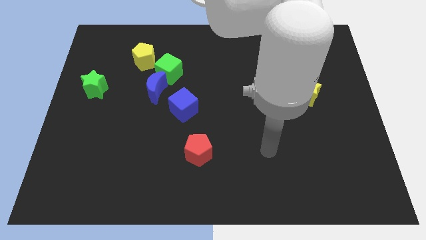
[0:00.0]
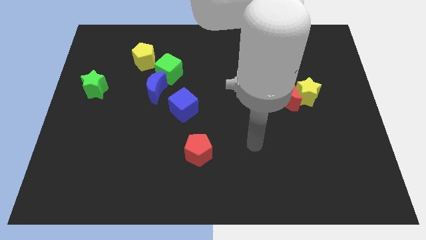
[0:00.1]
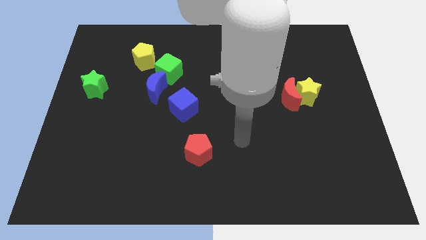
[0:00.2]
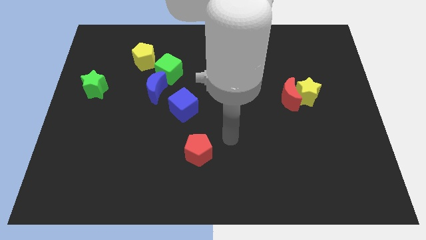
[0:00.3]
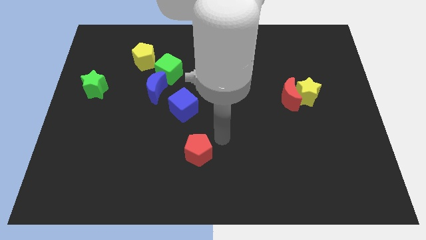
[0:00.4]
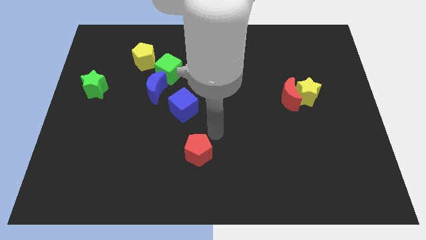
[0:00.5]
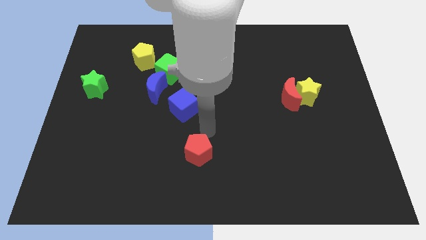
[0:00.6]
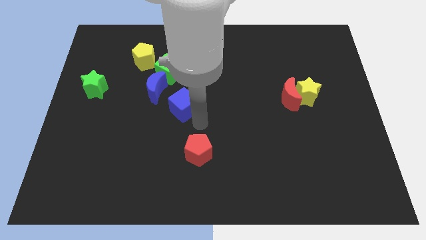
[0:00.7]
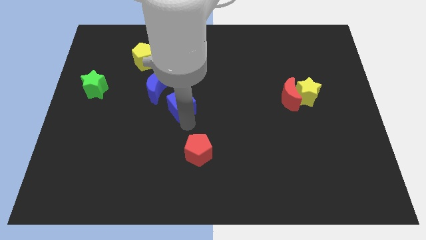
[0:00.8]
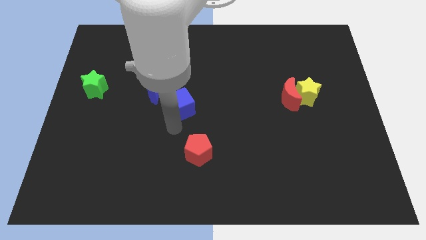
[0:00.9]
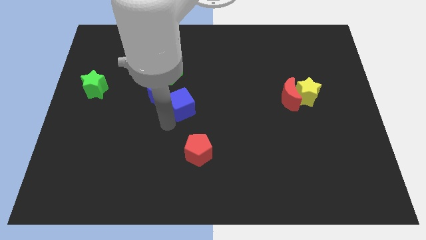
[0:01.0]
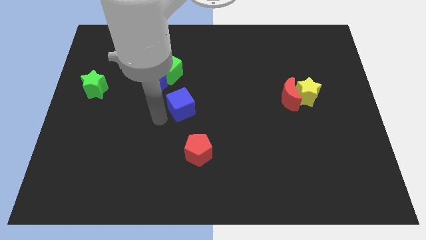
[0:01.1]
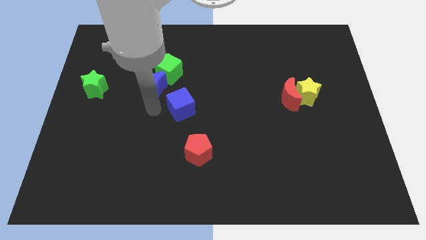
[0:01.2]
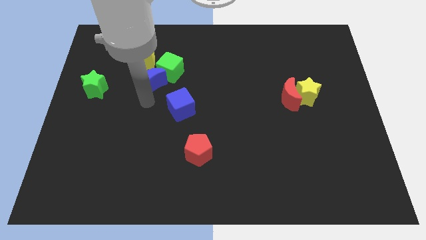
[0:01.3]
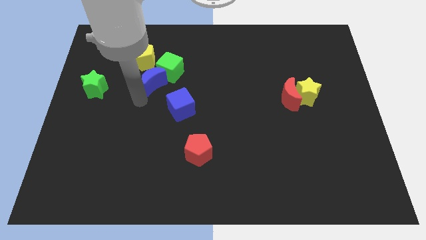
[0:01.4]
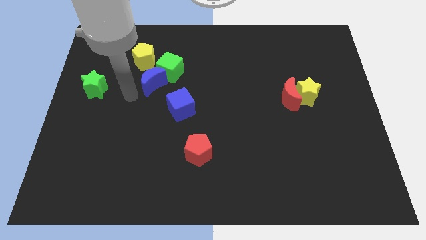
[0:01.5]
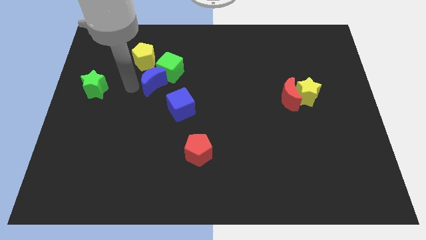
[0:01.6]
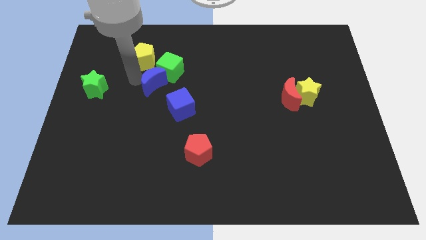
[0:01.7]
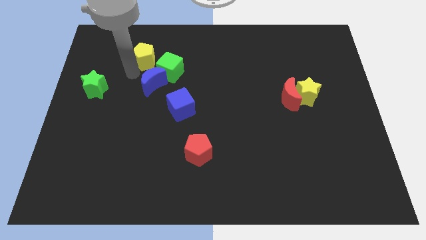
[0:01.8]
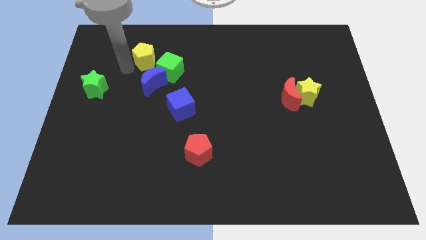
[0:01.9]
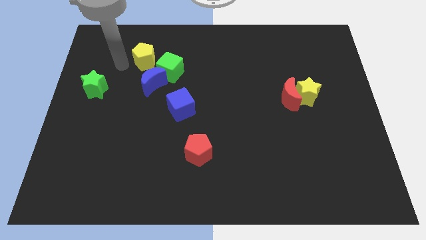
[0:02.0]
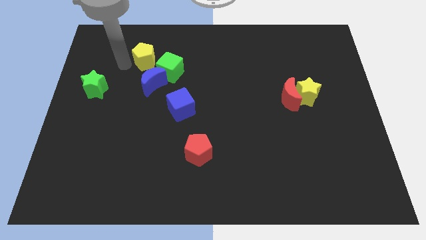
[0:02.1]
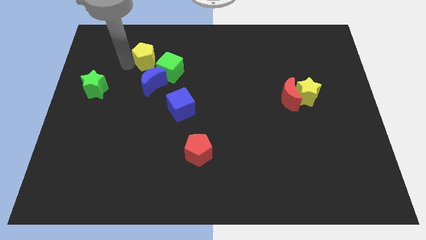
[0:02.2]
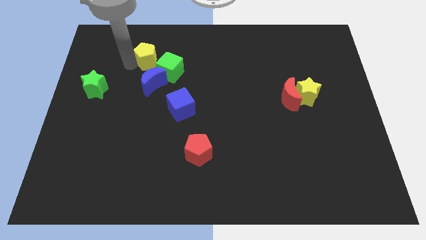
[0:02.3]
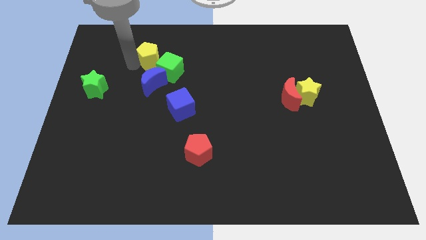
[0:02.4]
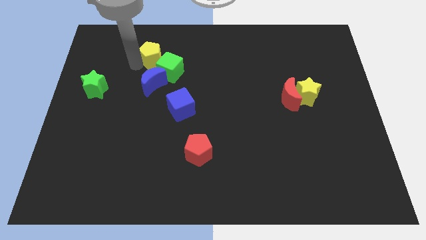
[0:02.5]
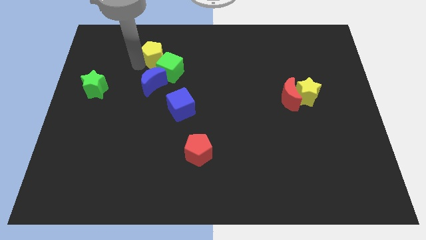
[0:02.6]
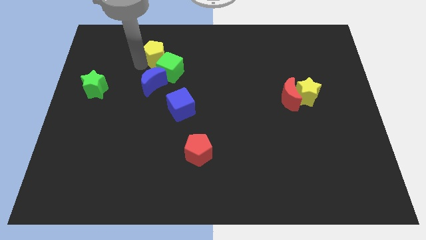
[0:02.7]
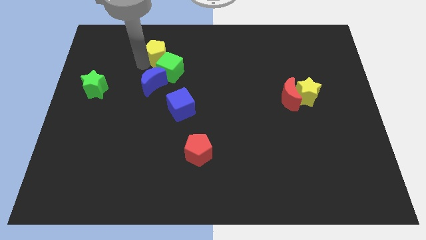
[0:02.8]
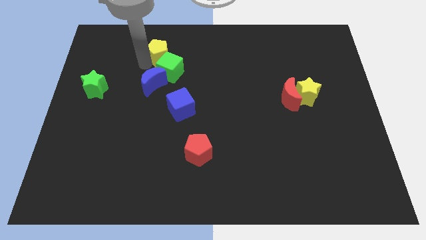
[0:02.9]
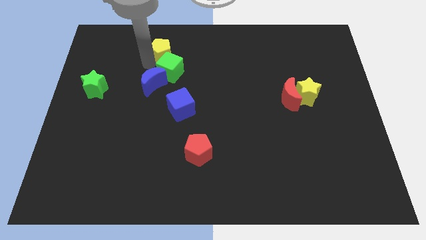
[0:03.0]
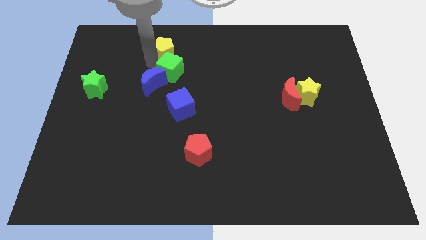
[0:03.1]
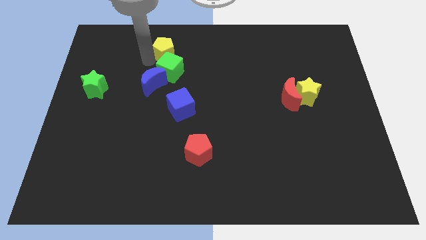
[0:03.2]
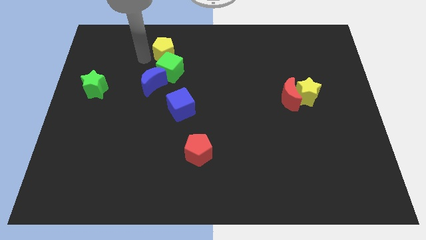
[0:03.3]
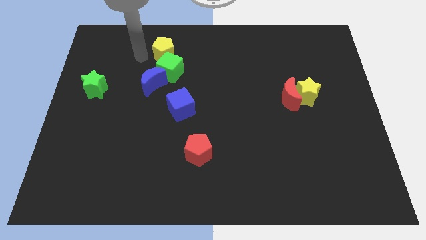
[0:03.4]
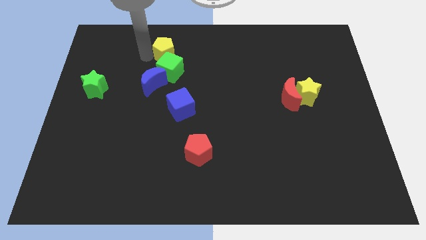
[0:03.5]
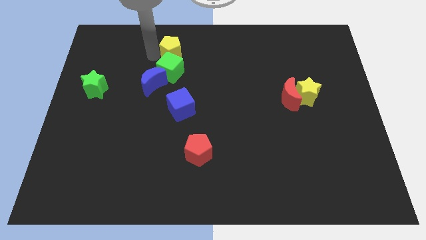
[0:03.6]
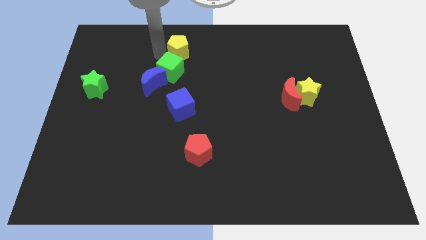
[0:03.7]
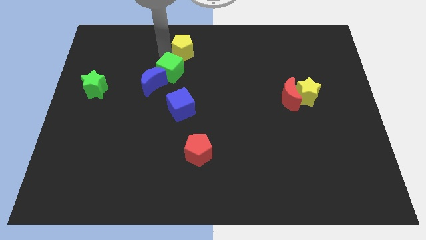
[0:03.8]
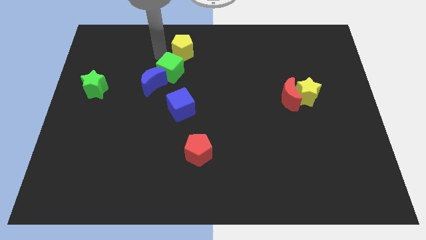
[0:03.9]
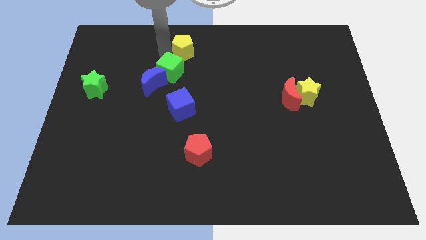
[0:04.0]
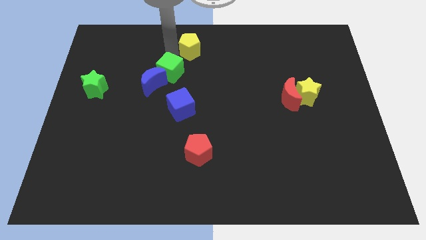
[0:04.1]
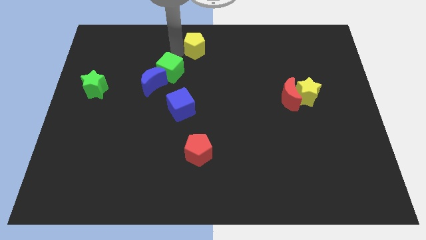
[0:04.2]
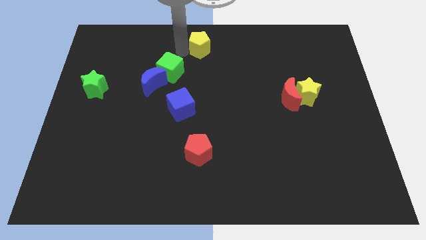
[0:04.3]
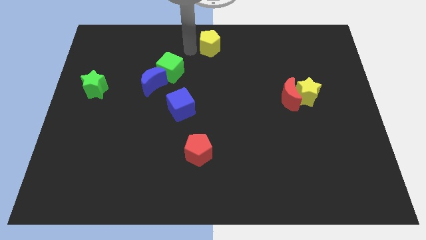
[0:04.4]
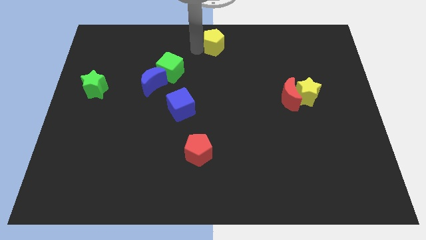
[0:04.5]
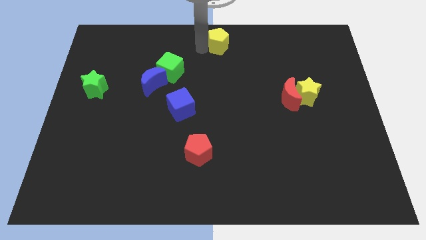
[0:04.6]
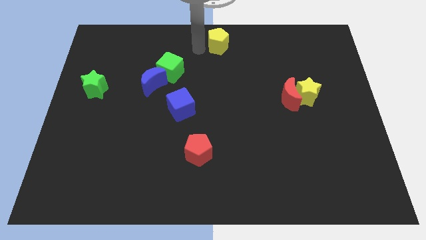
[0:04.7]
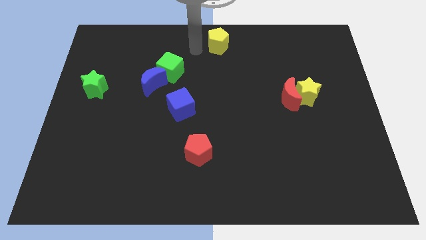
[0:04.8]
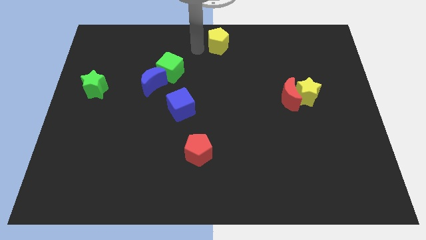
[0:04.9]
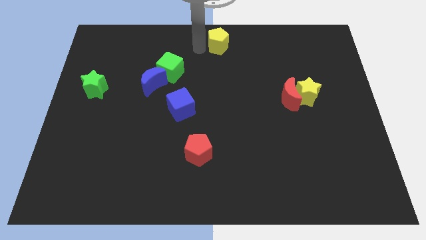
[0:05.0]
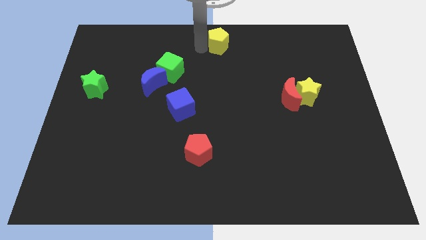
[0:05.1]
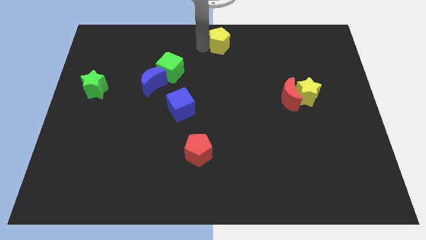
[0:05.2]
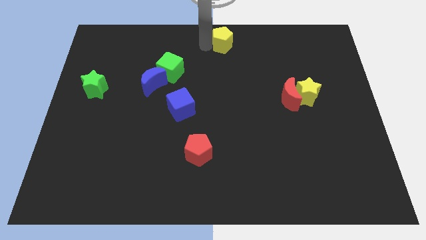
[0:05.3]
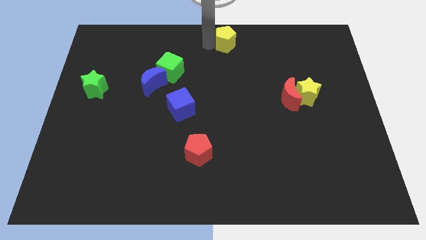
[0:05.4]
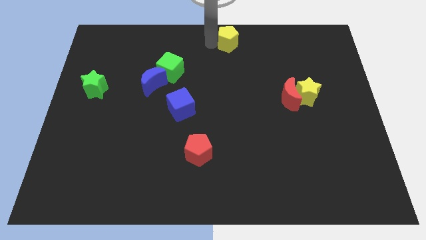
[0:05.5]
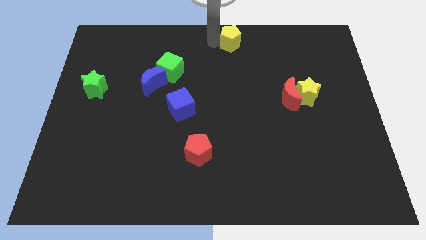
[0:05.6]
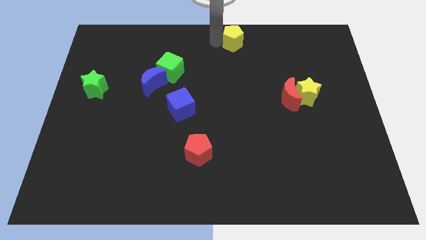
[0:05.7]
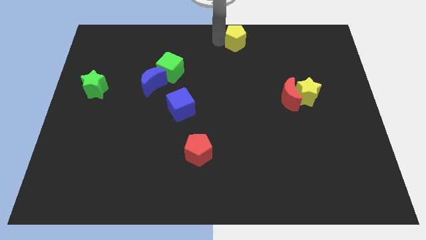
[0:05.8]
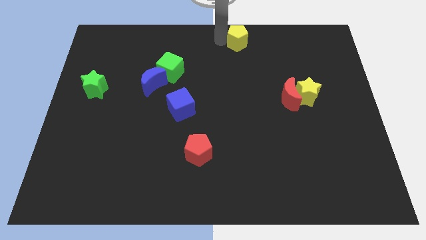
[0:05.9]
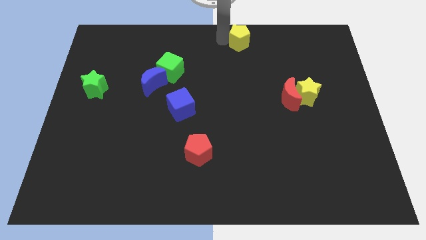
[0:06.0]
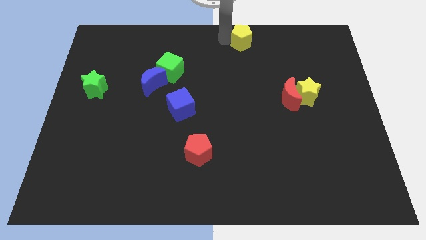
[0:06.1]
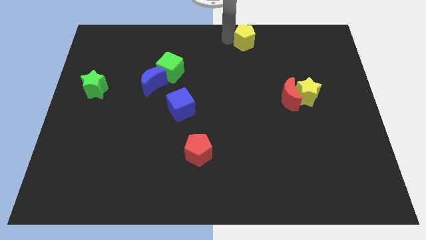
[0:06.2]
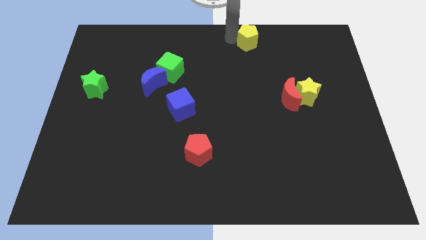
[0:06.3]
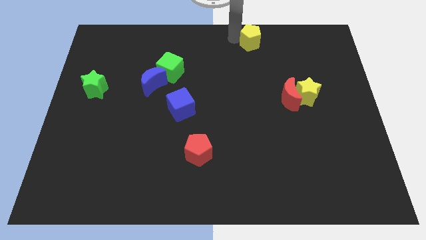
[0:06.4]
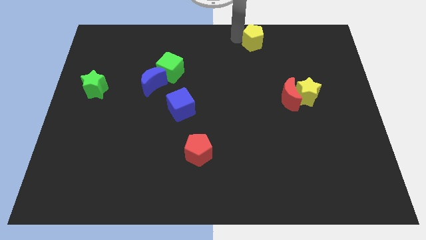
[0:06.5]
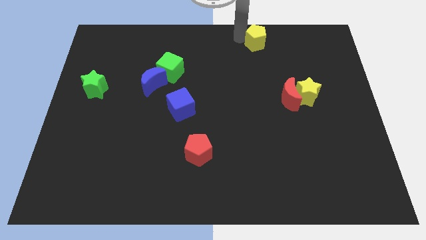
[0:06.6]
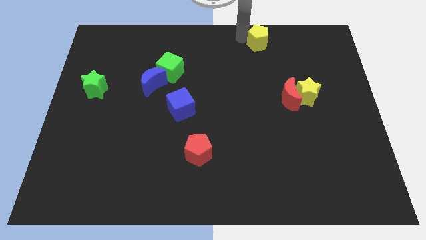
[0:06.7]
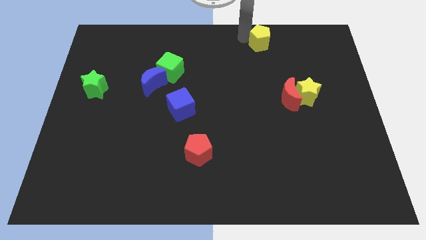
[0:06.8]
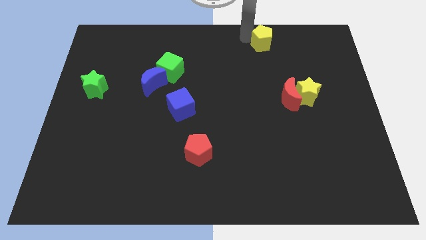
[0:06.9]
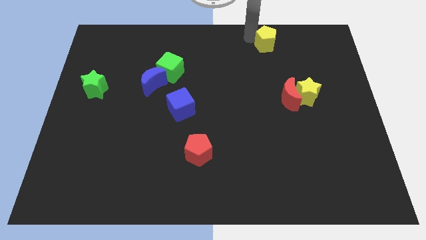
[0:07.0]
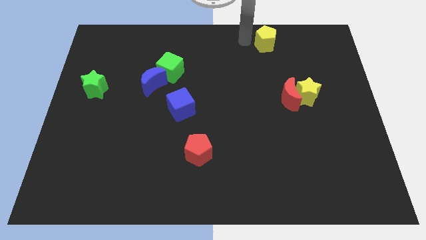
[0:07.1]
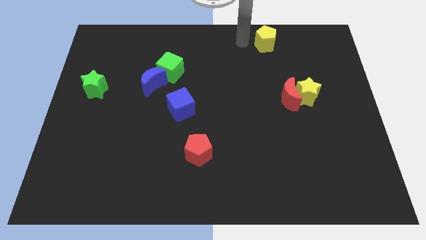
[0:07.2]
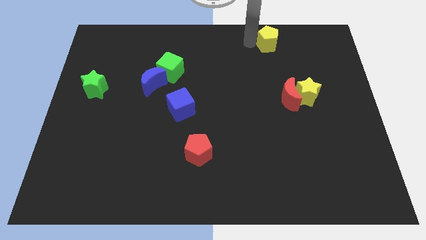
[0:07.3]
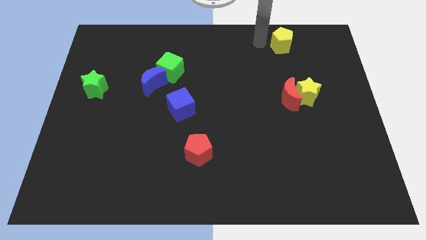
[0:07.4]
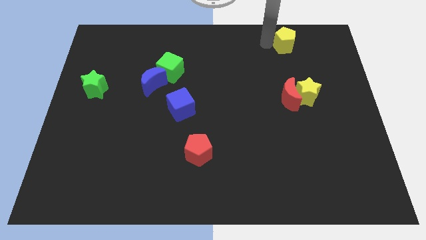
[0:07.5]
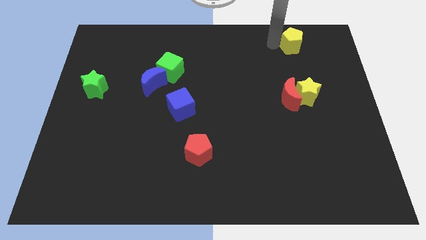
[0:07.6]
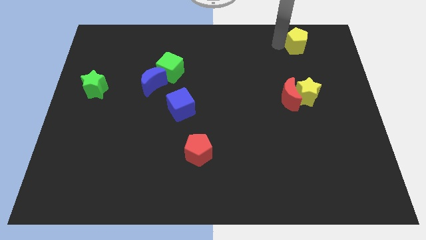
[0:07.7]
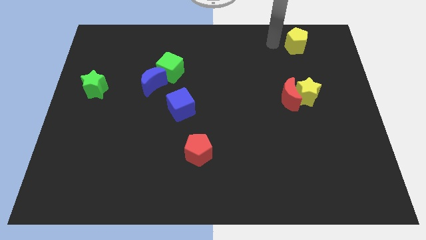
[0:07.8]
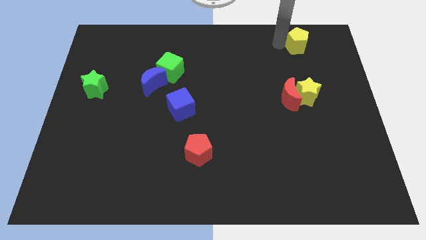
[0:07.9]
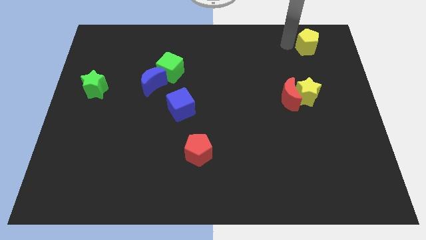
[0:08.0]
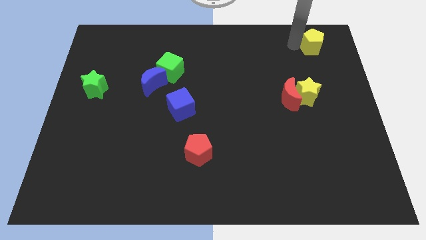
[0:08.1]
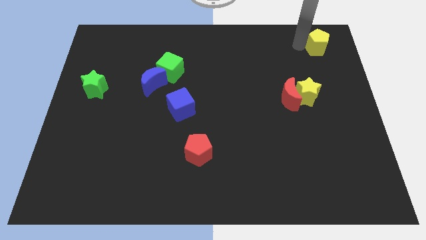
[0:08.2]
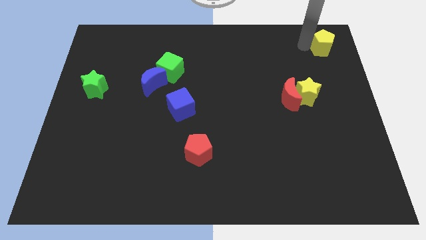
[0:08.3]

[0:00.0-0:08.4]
move the yellow pentagon to the top right of the board
